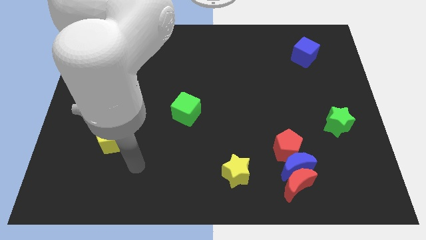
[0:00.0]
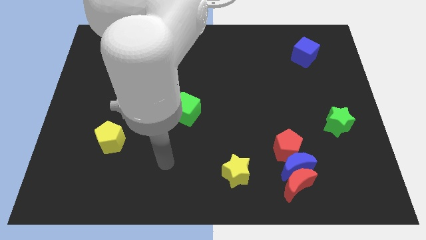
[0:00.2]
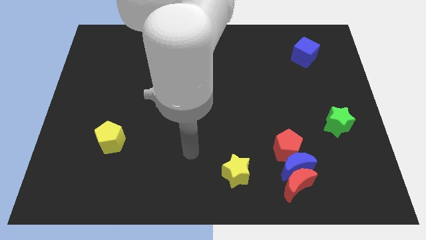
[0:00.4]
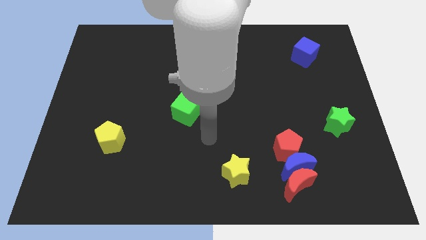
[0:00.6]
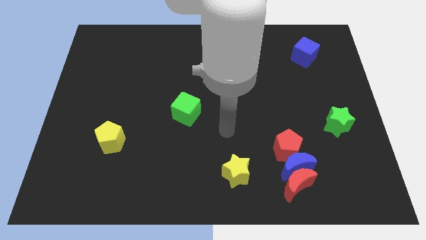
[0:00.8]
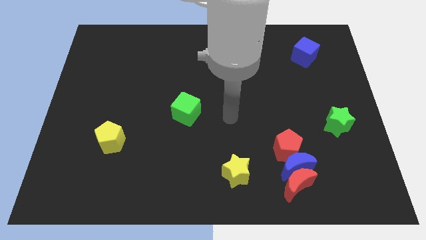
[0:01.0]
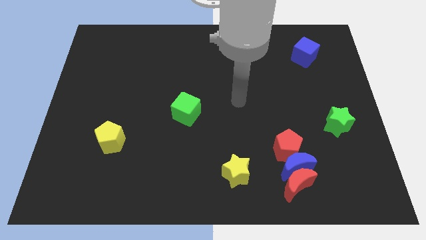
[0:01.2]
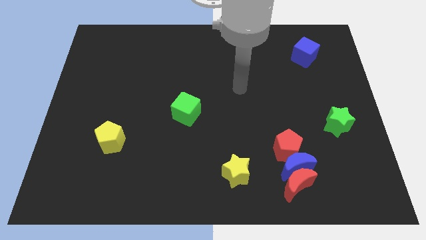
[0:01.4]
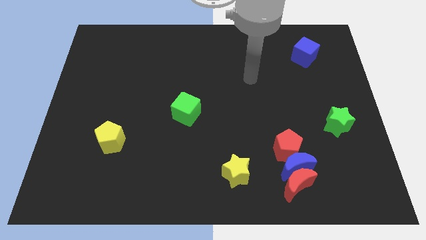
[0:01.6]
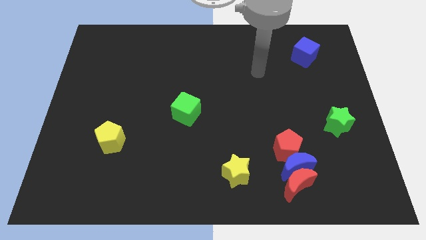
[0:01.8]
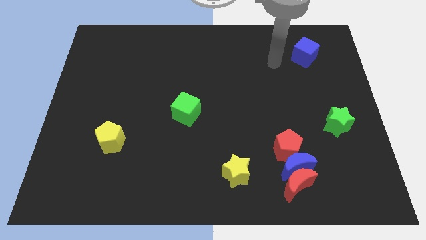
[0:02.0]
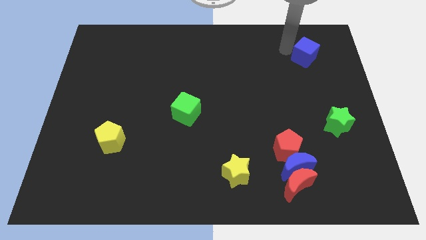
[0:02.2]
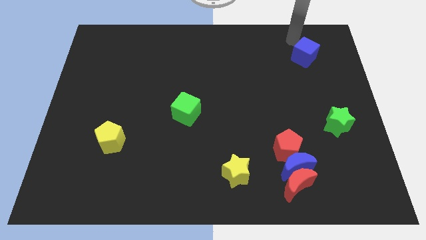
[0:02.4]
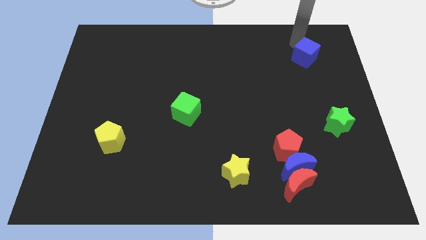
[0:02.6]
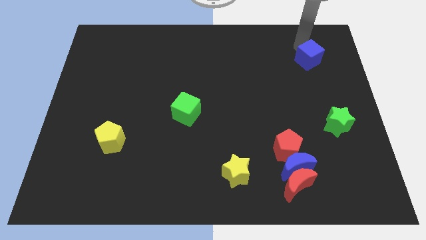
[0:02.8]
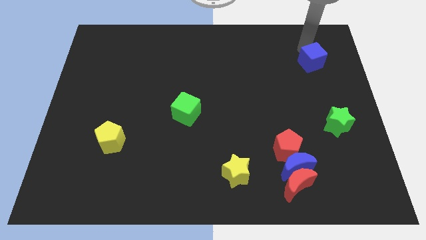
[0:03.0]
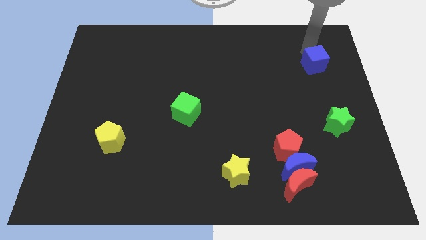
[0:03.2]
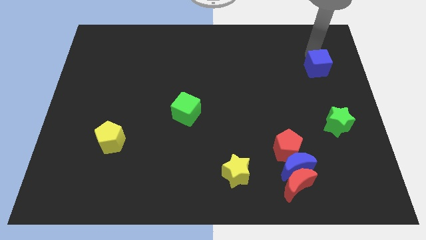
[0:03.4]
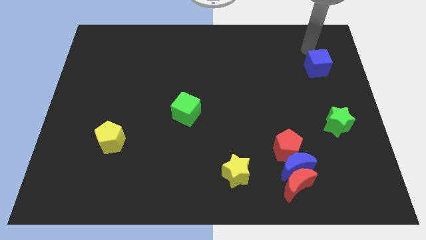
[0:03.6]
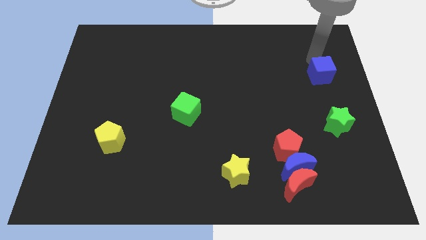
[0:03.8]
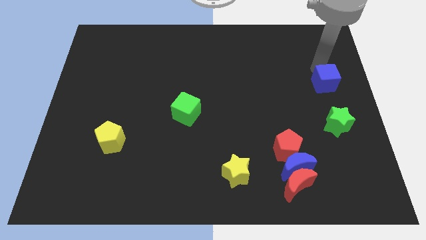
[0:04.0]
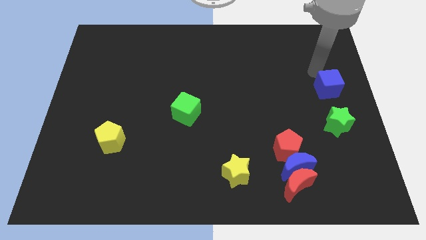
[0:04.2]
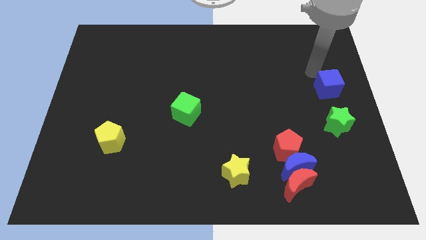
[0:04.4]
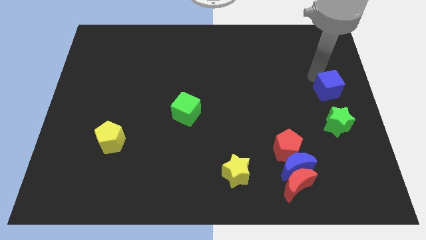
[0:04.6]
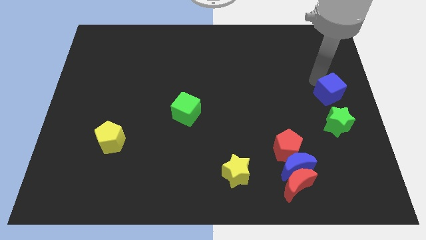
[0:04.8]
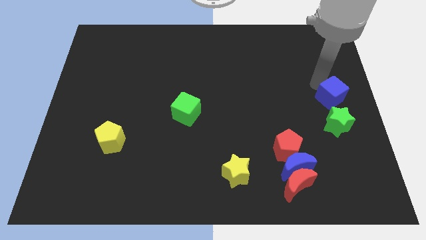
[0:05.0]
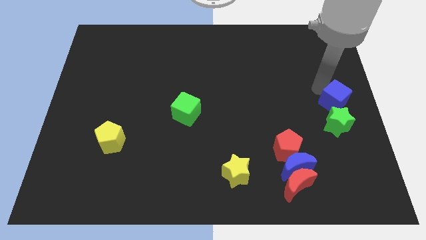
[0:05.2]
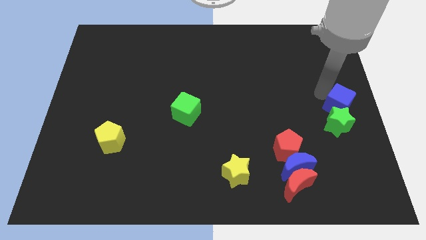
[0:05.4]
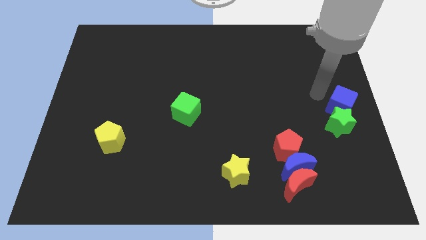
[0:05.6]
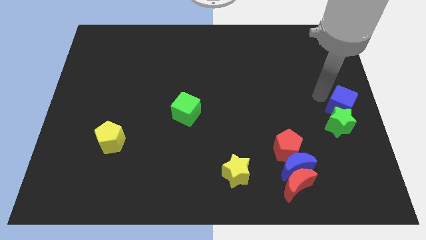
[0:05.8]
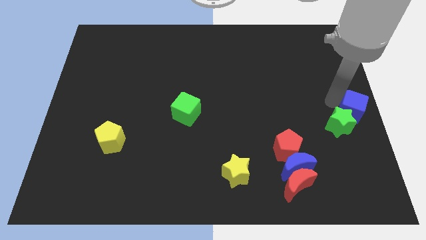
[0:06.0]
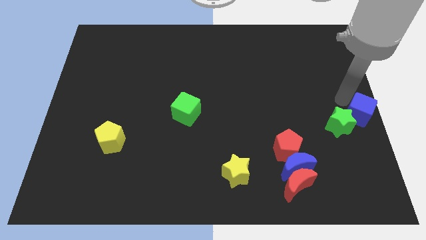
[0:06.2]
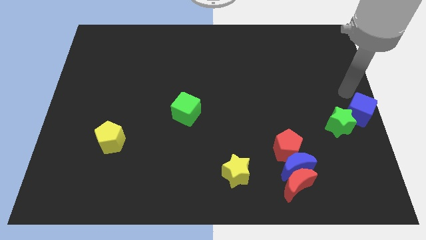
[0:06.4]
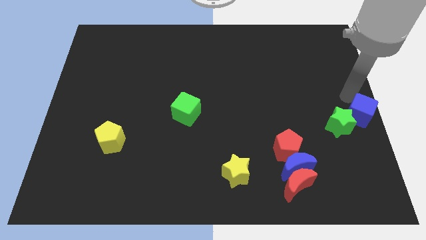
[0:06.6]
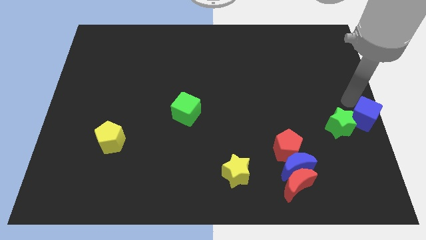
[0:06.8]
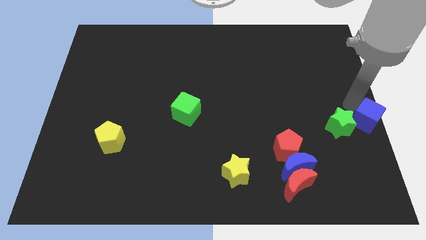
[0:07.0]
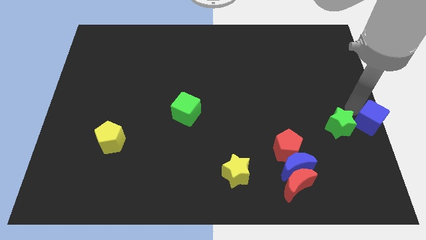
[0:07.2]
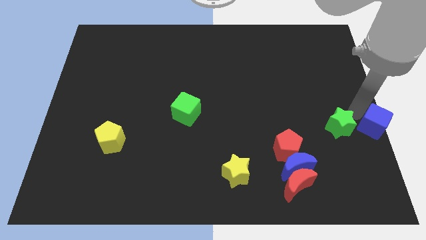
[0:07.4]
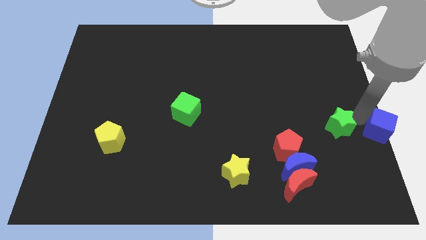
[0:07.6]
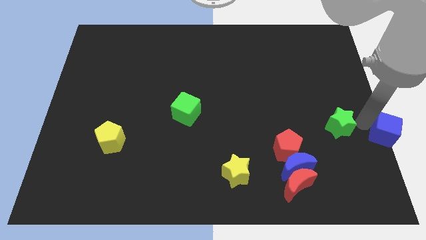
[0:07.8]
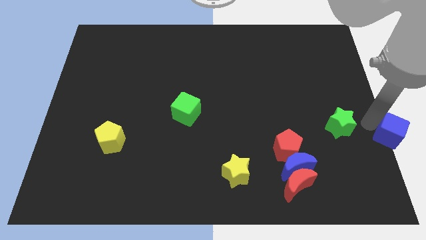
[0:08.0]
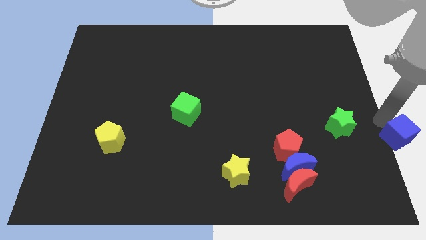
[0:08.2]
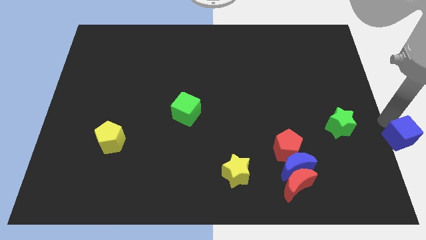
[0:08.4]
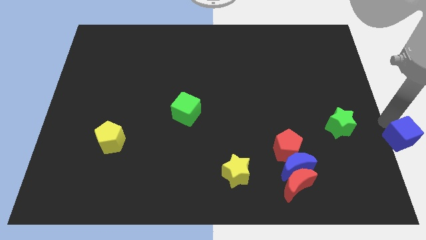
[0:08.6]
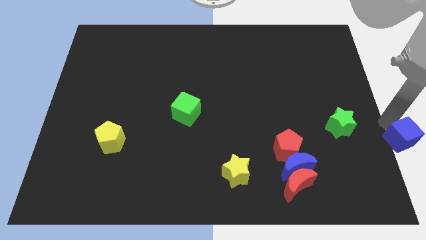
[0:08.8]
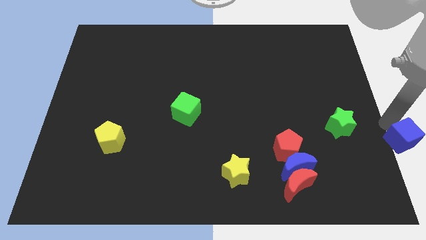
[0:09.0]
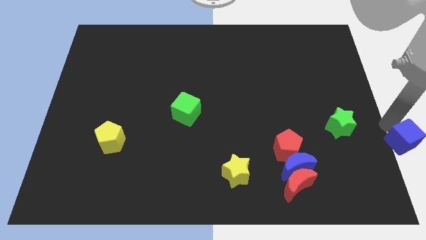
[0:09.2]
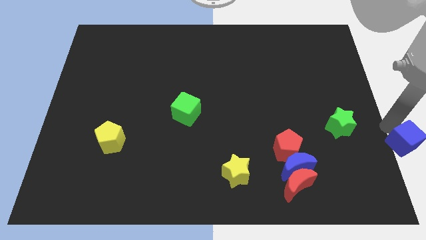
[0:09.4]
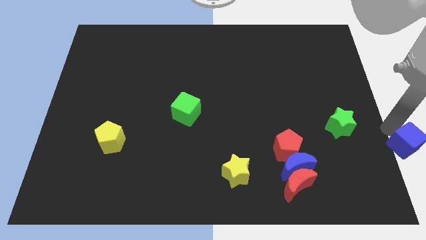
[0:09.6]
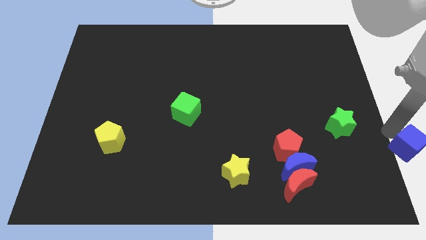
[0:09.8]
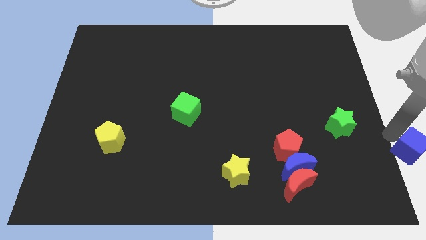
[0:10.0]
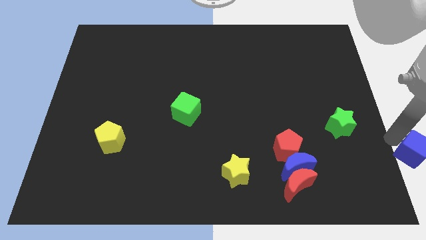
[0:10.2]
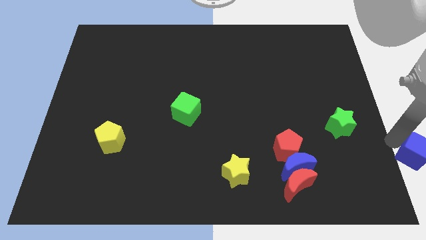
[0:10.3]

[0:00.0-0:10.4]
push the blue cube to the lower right corner

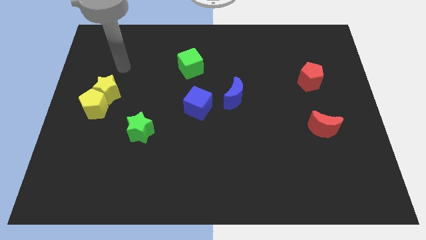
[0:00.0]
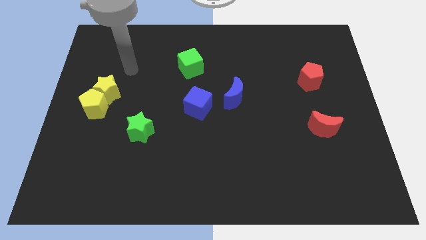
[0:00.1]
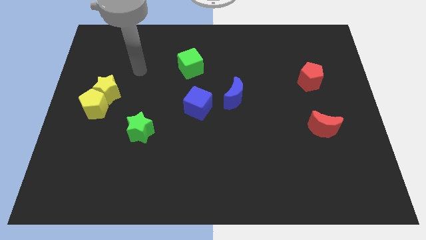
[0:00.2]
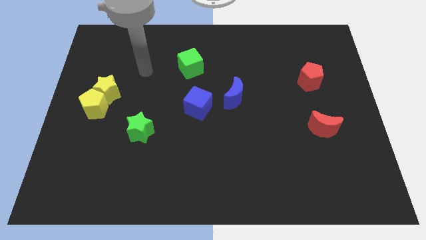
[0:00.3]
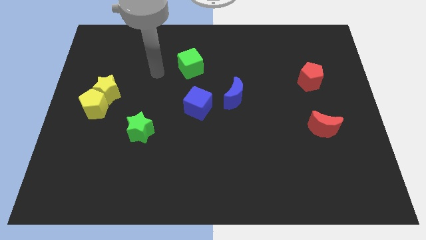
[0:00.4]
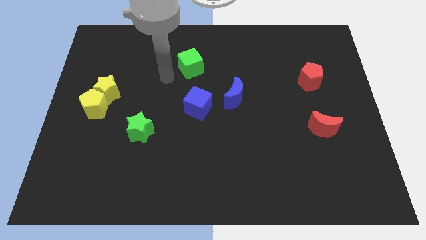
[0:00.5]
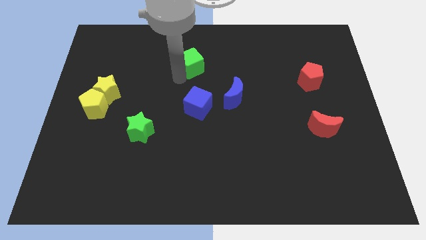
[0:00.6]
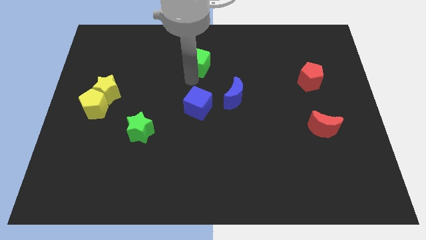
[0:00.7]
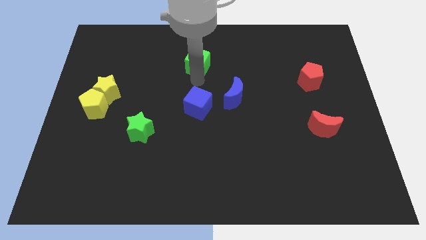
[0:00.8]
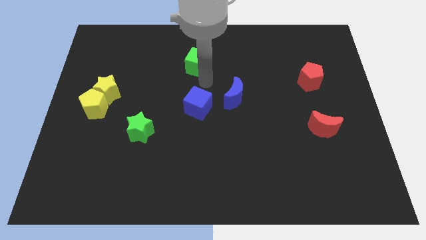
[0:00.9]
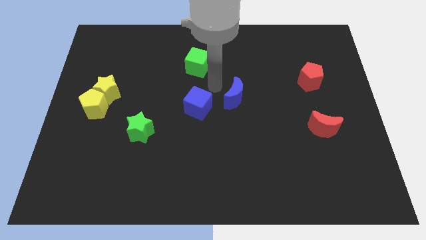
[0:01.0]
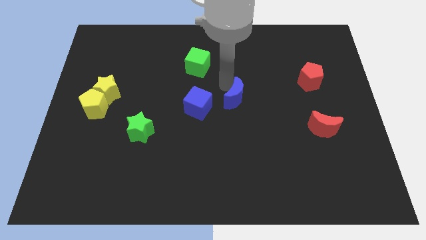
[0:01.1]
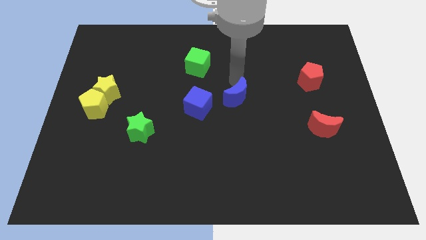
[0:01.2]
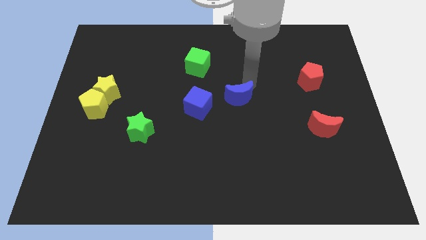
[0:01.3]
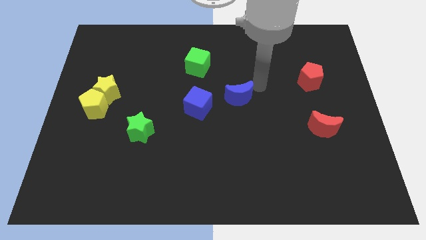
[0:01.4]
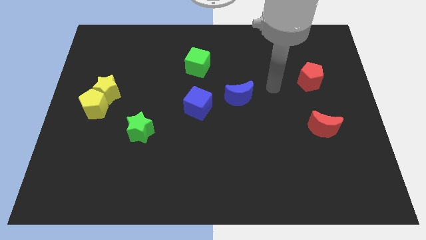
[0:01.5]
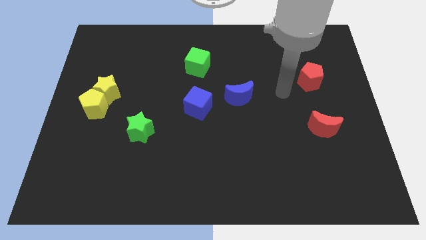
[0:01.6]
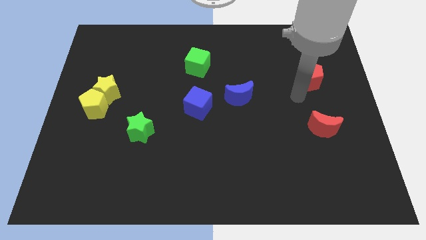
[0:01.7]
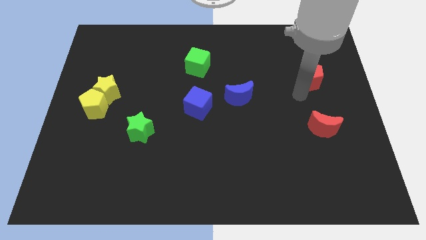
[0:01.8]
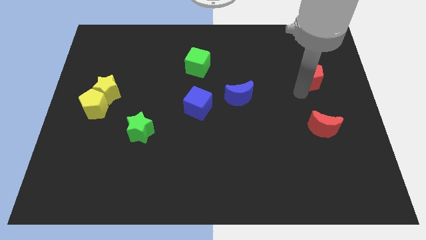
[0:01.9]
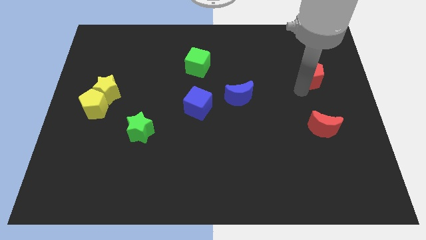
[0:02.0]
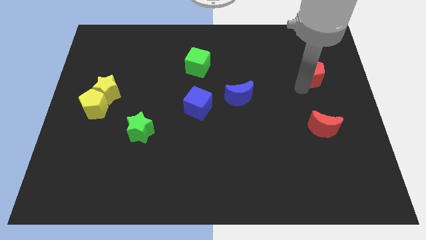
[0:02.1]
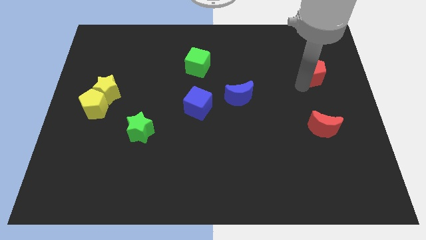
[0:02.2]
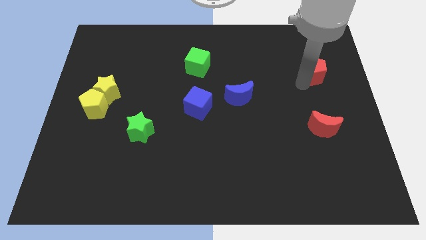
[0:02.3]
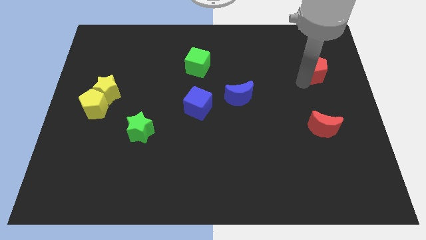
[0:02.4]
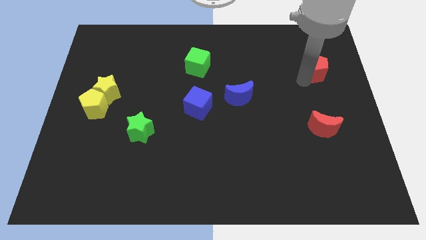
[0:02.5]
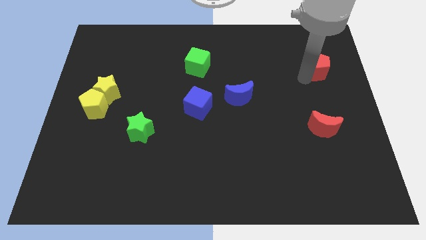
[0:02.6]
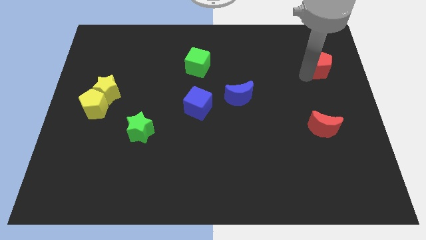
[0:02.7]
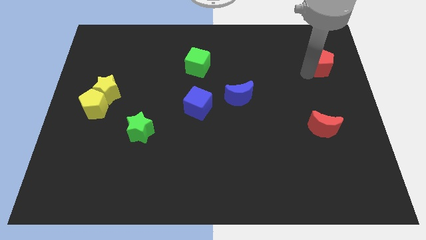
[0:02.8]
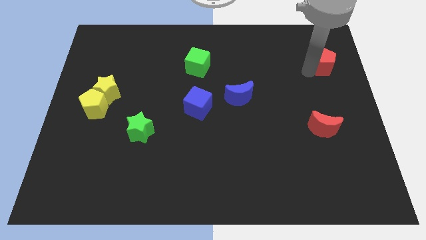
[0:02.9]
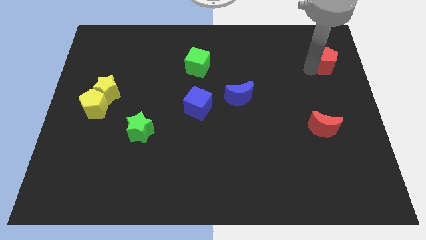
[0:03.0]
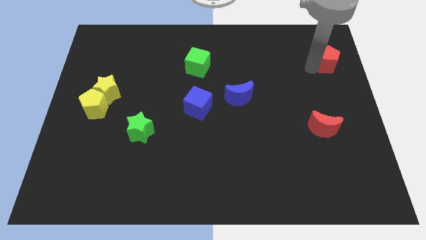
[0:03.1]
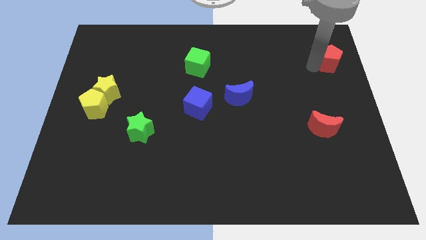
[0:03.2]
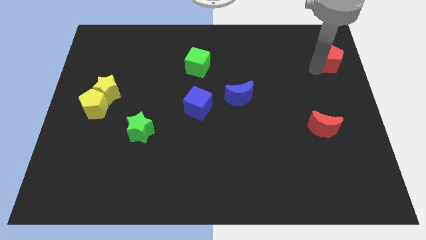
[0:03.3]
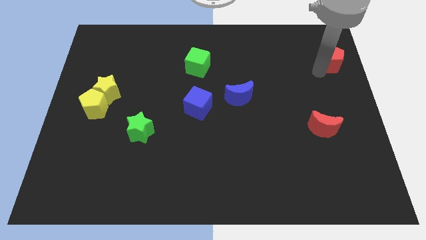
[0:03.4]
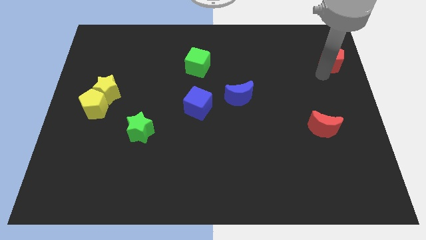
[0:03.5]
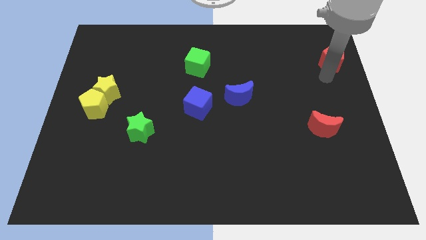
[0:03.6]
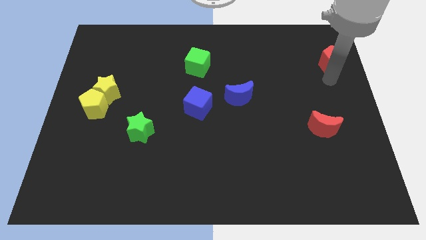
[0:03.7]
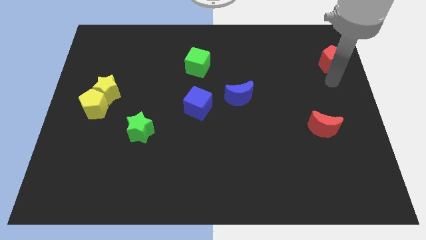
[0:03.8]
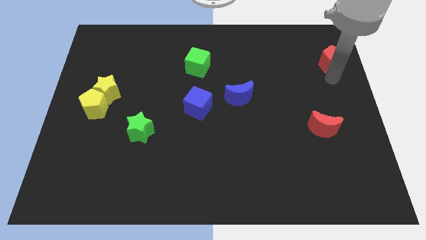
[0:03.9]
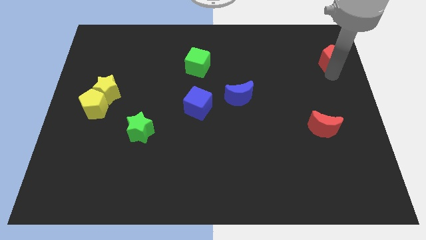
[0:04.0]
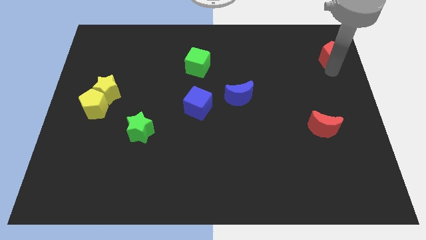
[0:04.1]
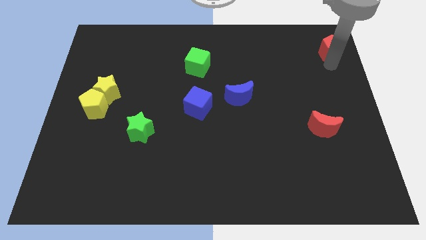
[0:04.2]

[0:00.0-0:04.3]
move the red pentagon to the upper right corner
